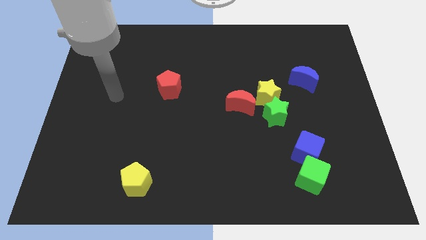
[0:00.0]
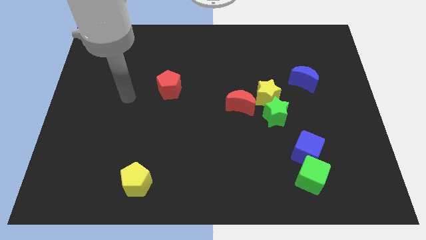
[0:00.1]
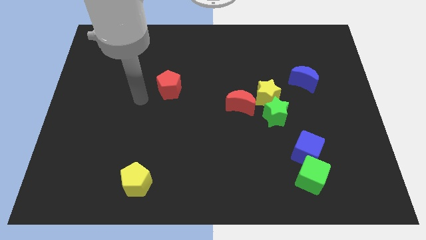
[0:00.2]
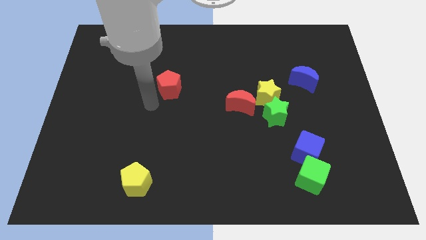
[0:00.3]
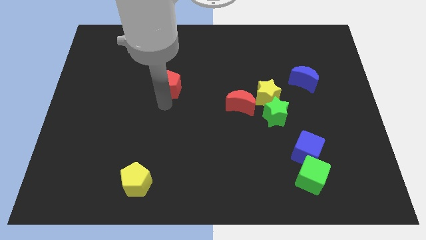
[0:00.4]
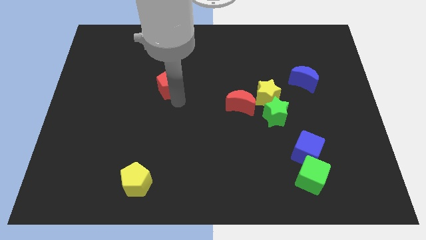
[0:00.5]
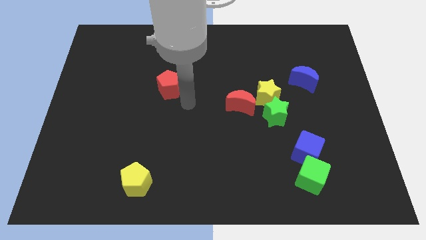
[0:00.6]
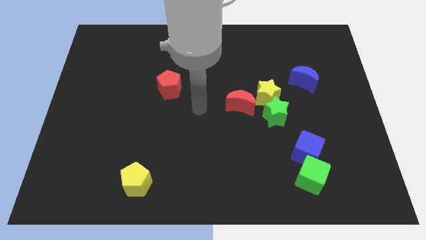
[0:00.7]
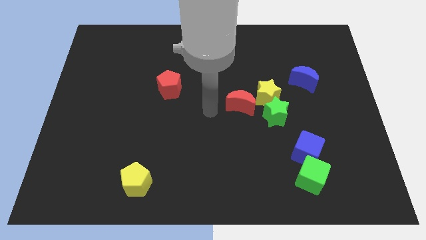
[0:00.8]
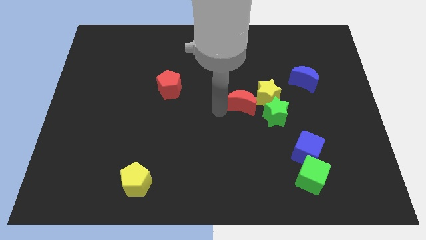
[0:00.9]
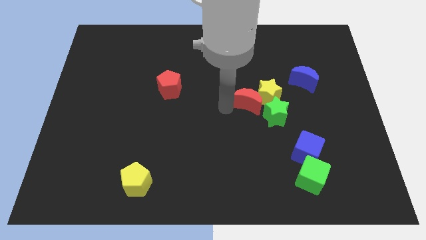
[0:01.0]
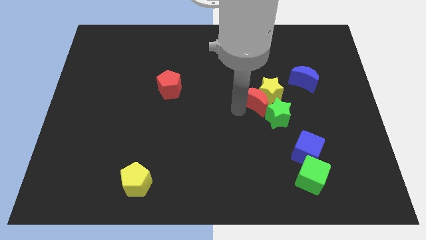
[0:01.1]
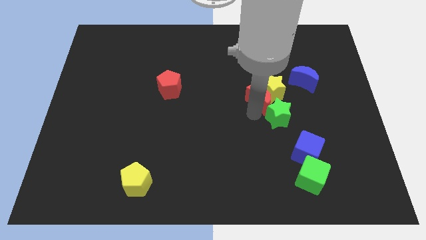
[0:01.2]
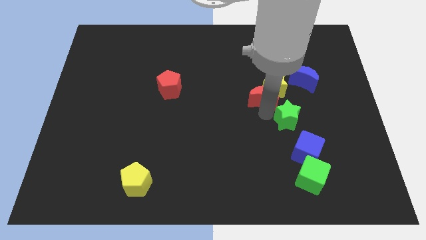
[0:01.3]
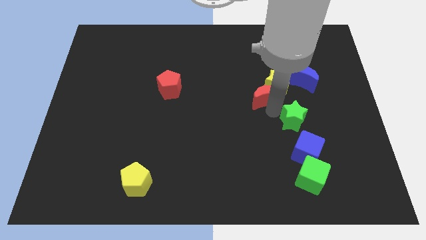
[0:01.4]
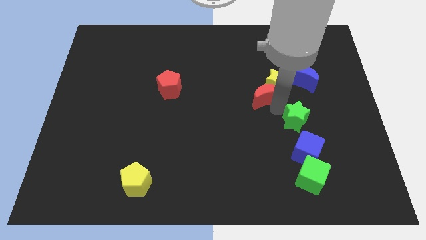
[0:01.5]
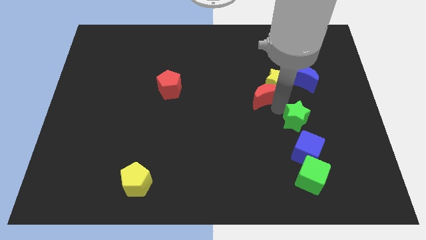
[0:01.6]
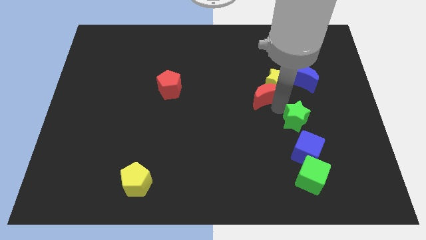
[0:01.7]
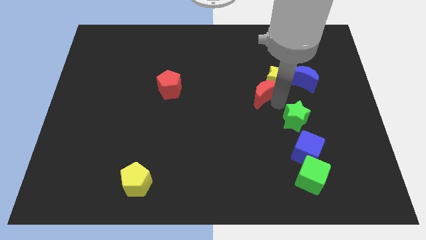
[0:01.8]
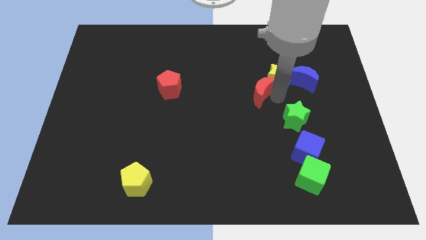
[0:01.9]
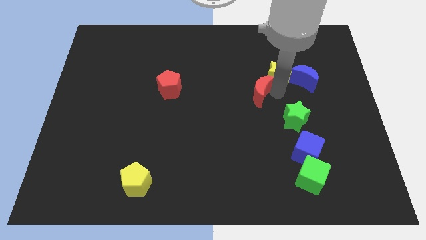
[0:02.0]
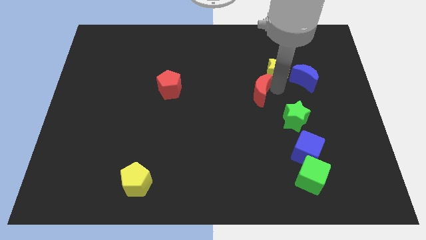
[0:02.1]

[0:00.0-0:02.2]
pull the yellow star apart from the green star and red moon

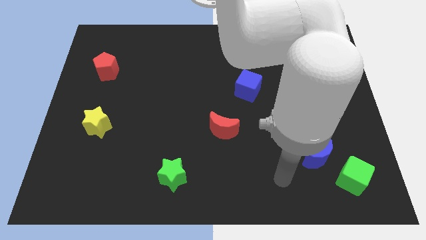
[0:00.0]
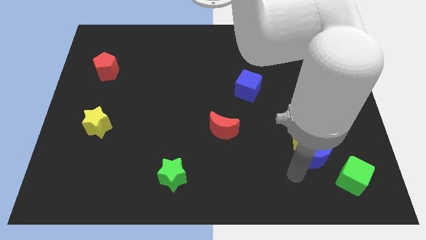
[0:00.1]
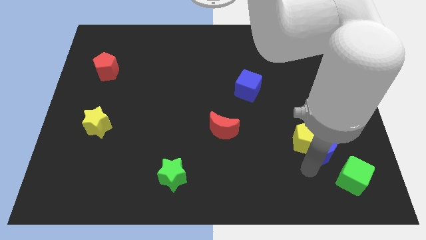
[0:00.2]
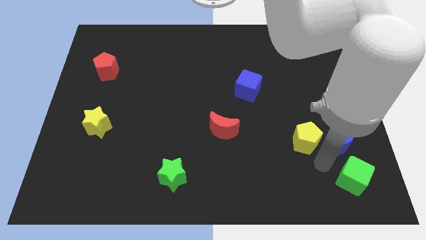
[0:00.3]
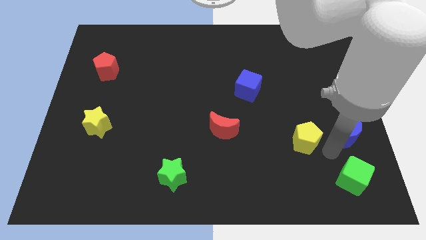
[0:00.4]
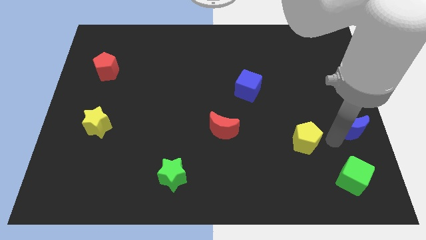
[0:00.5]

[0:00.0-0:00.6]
separate the yellow pentagon from the blue moon

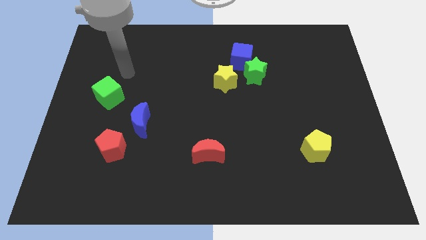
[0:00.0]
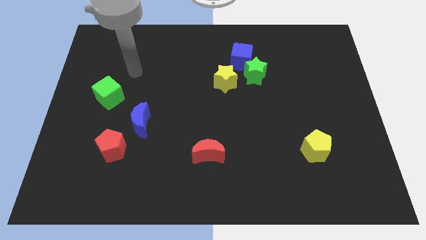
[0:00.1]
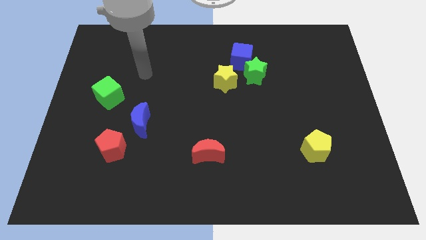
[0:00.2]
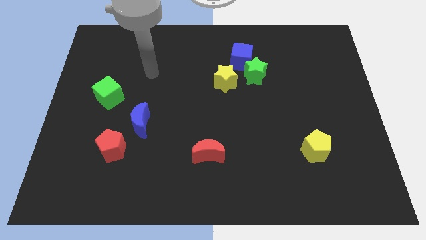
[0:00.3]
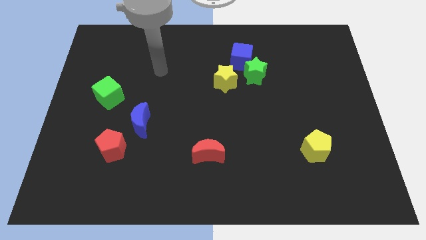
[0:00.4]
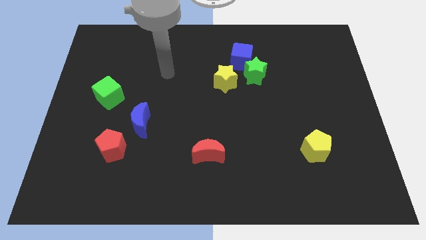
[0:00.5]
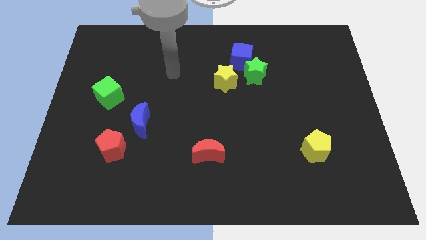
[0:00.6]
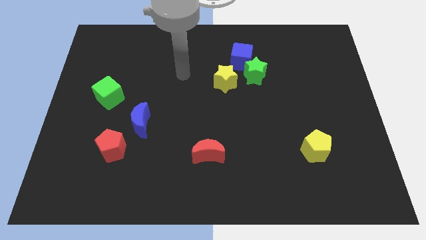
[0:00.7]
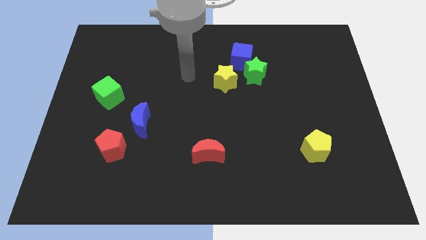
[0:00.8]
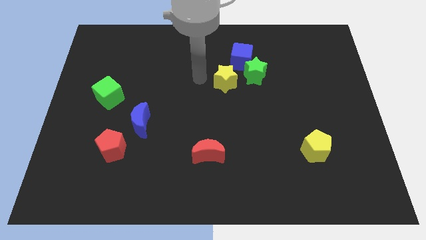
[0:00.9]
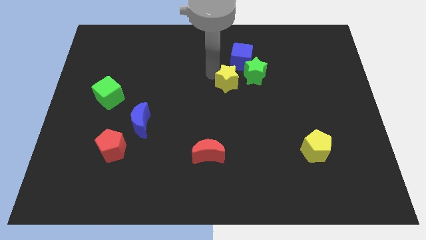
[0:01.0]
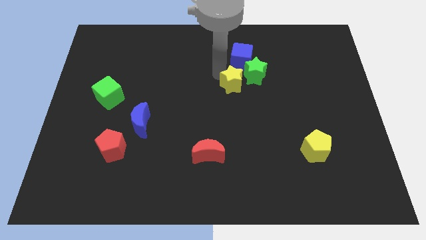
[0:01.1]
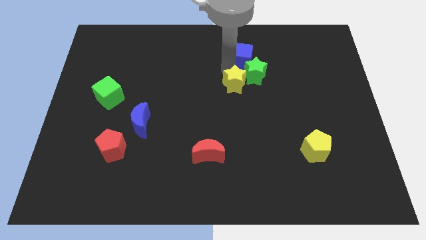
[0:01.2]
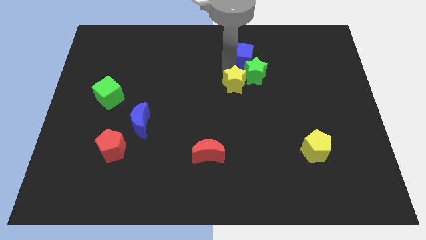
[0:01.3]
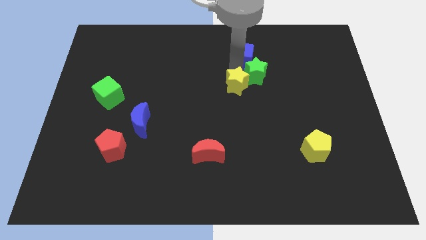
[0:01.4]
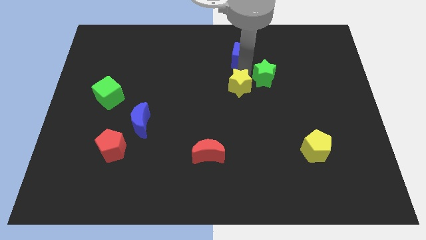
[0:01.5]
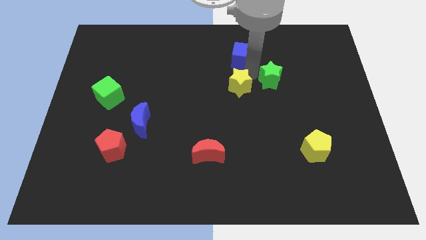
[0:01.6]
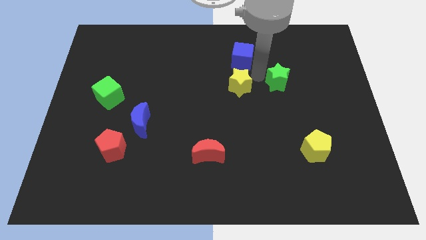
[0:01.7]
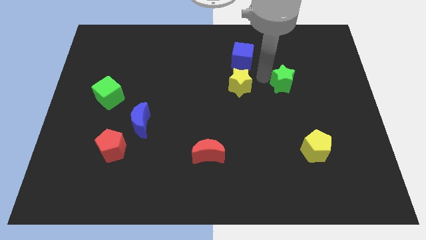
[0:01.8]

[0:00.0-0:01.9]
separate the green star from the blue cube and yellow star

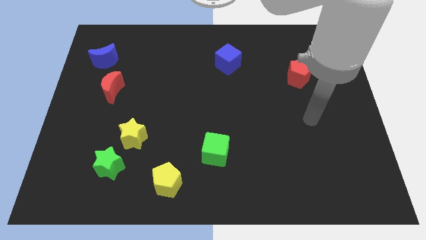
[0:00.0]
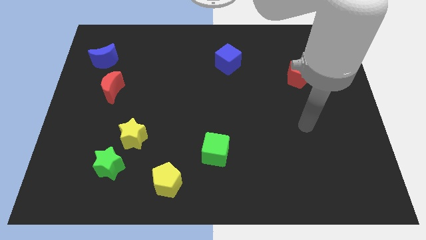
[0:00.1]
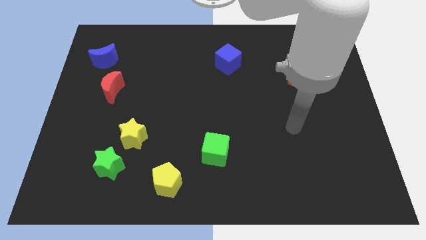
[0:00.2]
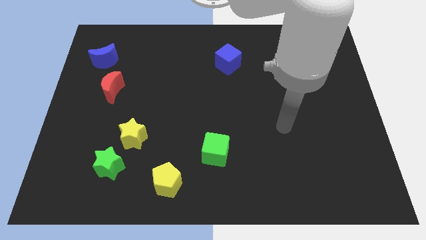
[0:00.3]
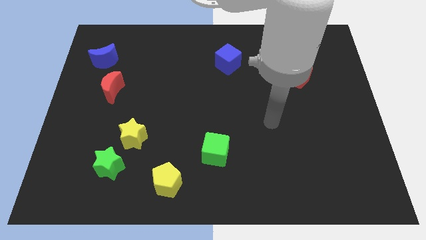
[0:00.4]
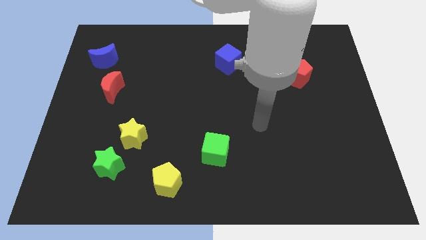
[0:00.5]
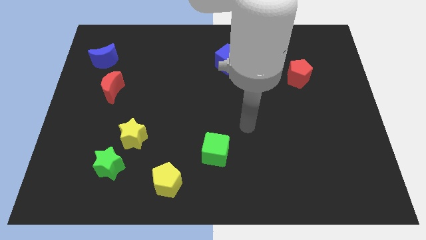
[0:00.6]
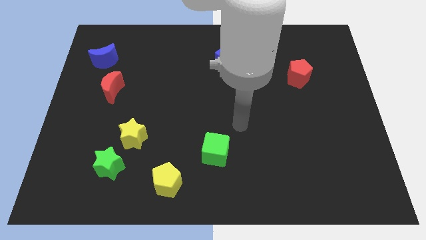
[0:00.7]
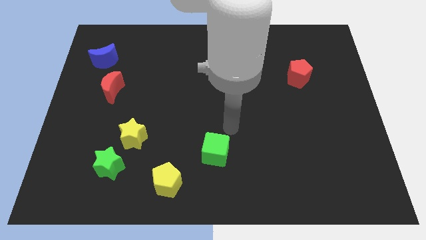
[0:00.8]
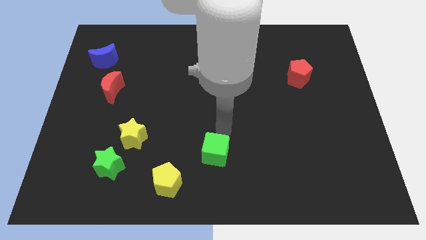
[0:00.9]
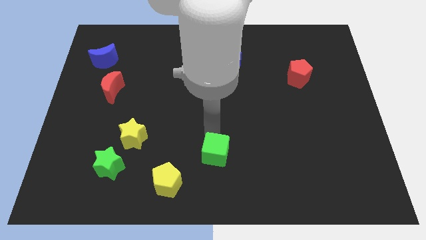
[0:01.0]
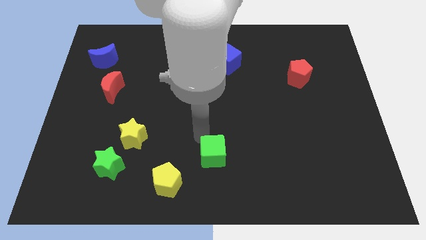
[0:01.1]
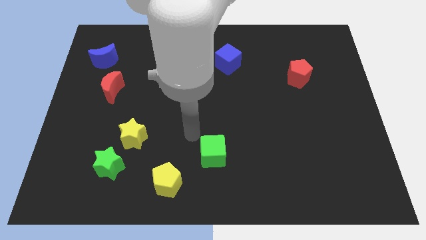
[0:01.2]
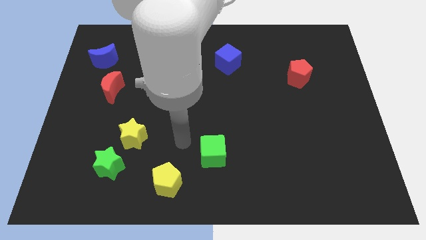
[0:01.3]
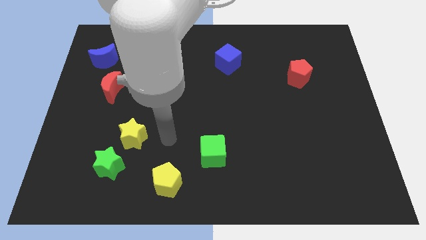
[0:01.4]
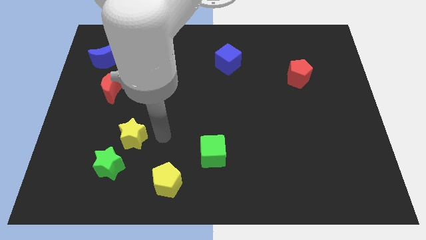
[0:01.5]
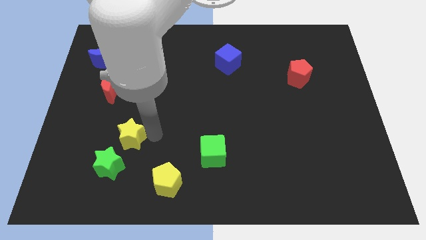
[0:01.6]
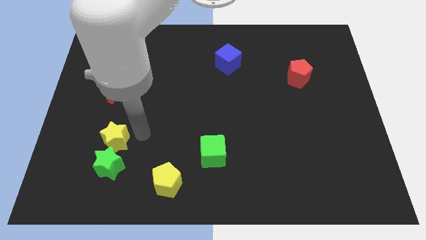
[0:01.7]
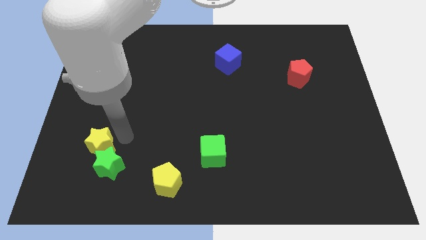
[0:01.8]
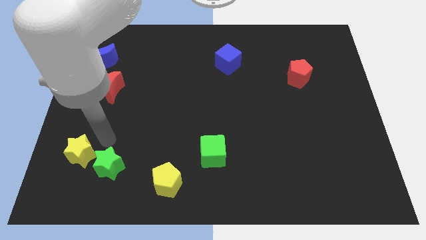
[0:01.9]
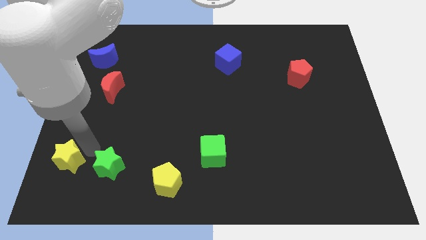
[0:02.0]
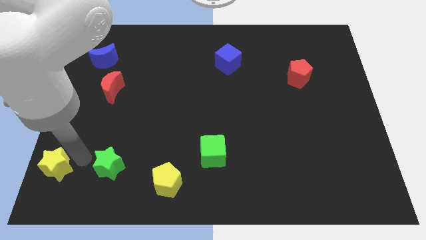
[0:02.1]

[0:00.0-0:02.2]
move the green star away from the yellow star

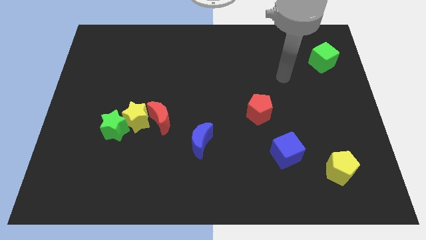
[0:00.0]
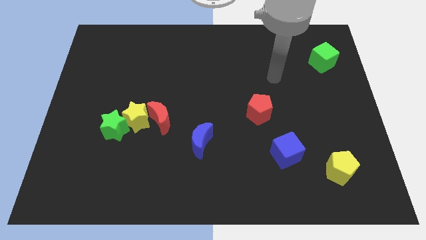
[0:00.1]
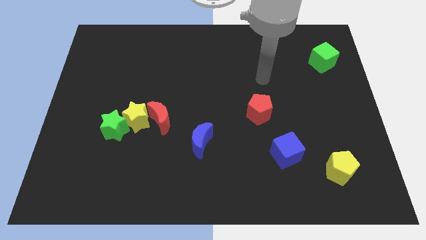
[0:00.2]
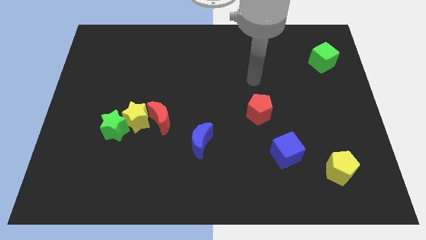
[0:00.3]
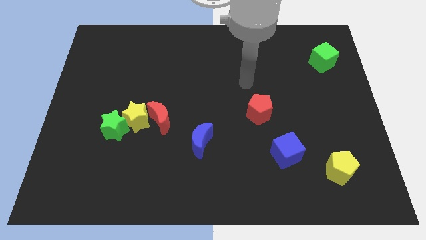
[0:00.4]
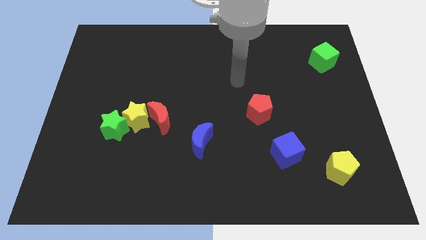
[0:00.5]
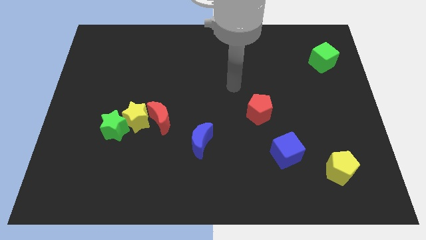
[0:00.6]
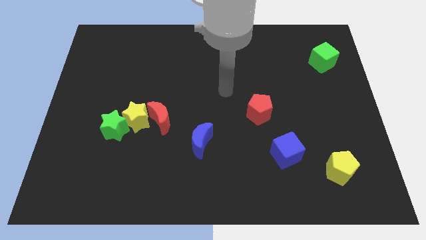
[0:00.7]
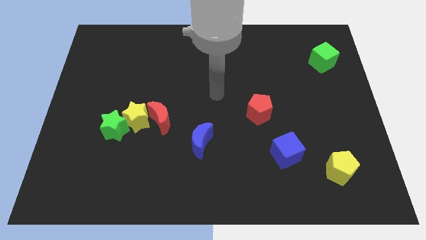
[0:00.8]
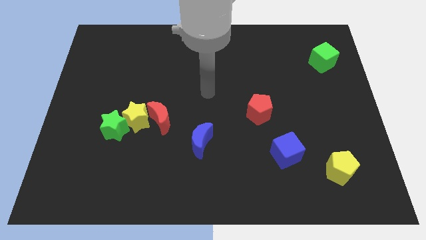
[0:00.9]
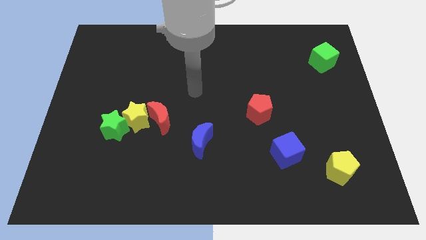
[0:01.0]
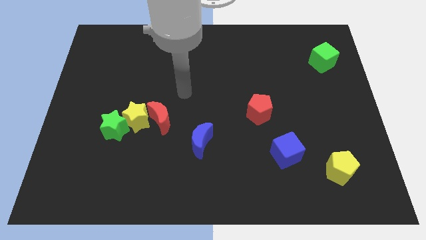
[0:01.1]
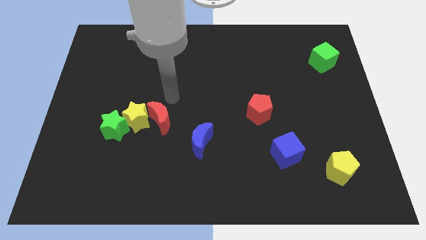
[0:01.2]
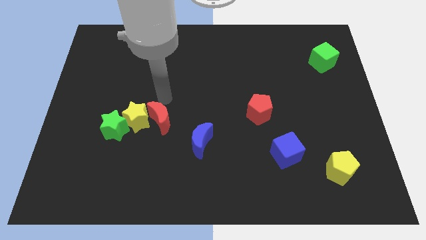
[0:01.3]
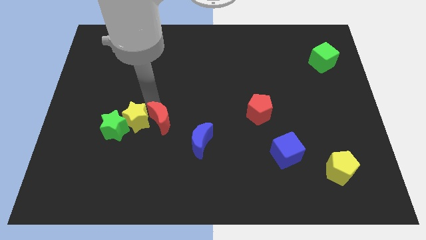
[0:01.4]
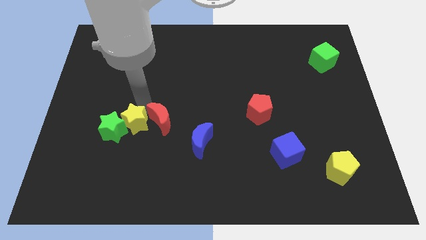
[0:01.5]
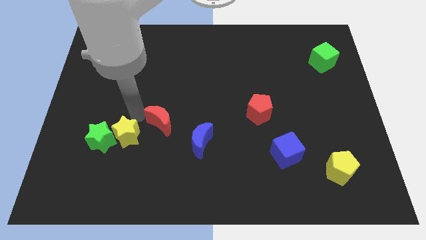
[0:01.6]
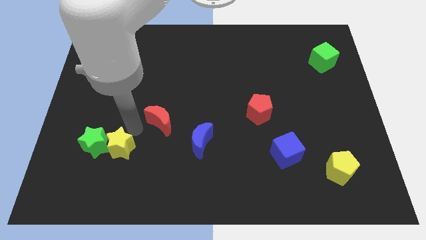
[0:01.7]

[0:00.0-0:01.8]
pull the red moon apart from the yellow star

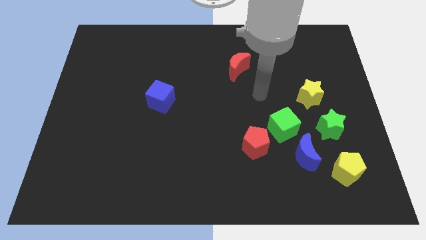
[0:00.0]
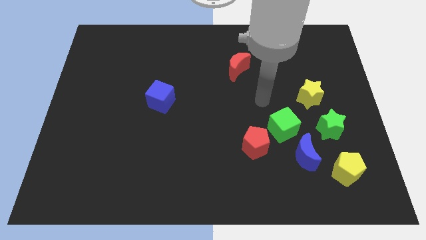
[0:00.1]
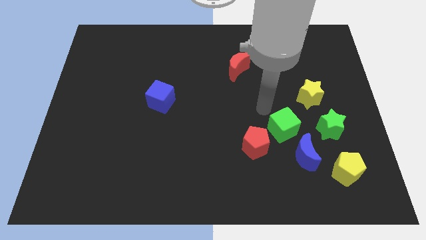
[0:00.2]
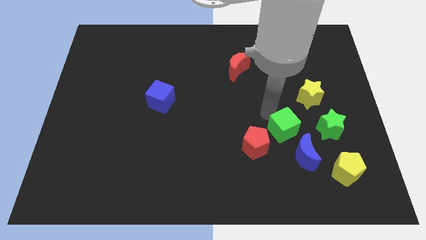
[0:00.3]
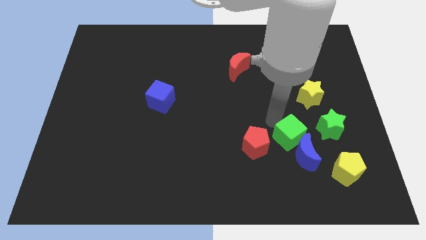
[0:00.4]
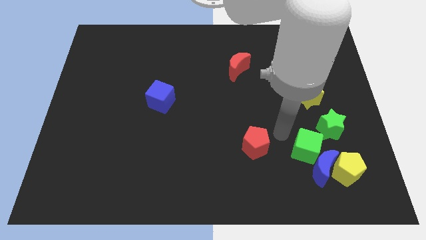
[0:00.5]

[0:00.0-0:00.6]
separate the red pentagon from the green cube
